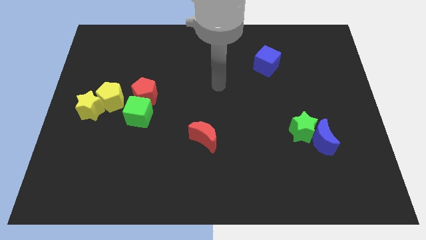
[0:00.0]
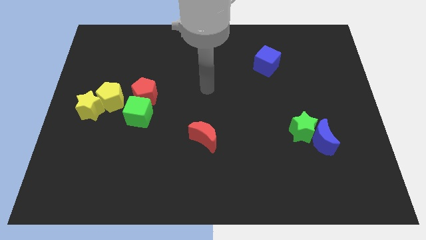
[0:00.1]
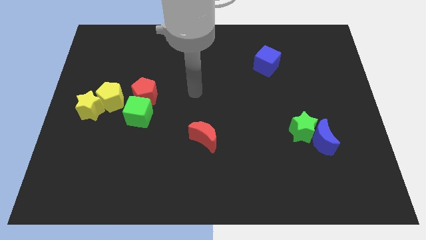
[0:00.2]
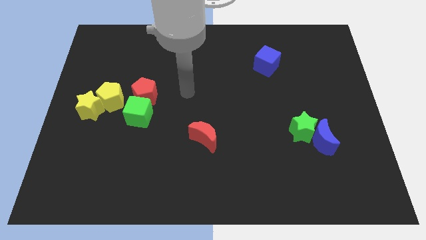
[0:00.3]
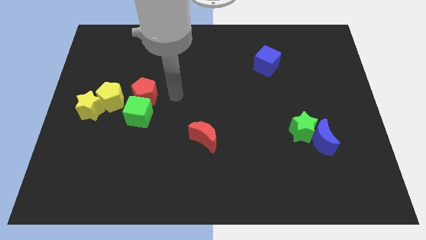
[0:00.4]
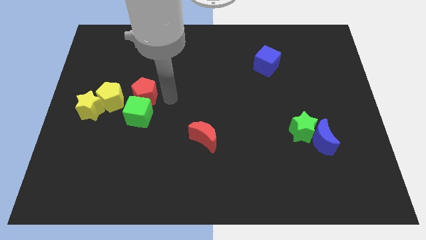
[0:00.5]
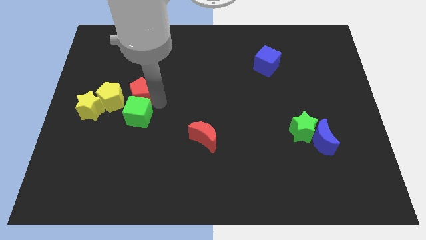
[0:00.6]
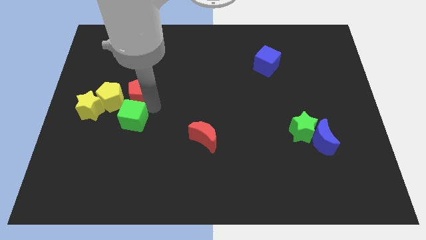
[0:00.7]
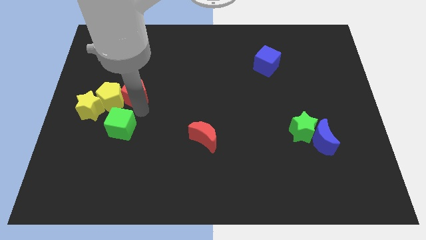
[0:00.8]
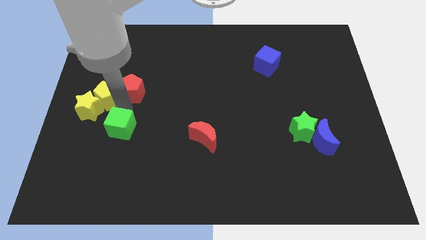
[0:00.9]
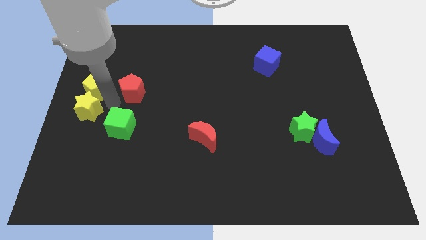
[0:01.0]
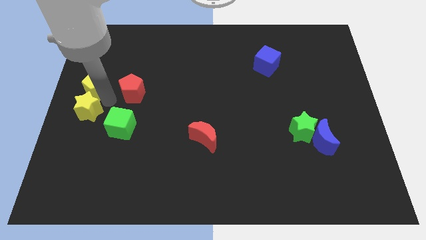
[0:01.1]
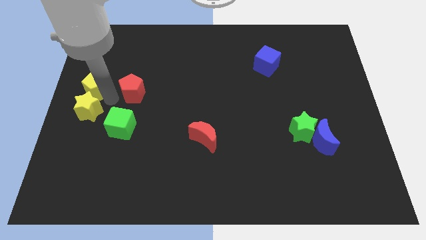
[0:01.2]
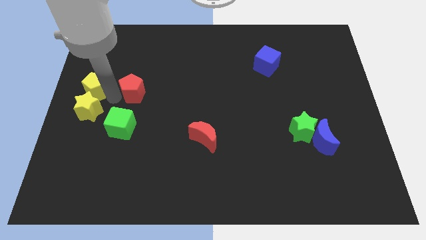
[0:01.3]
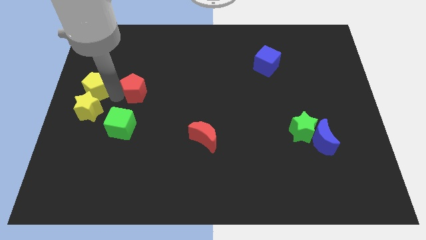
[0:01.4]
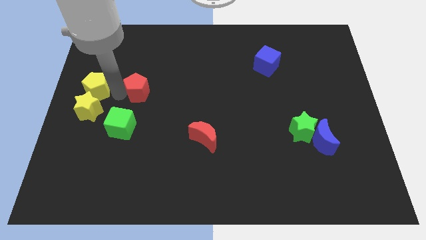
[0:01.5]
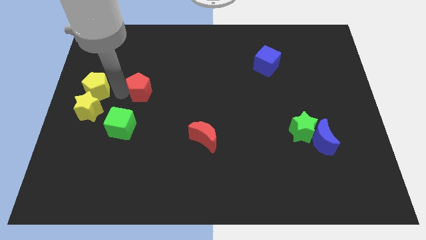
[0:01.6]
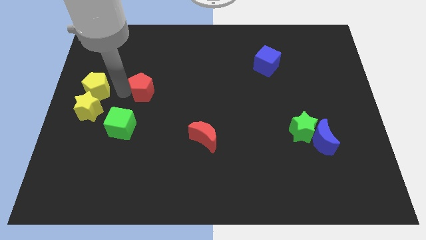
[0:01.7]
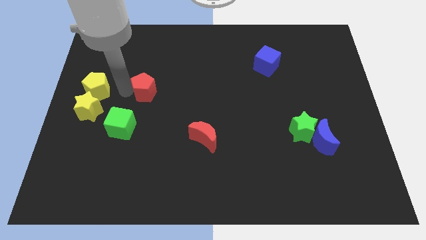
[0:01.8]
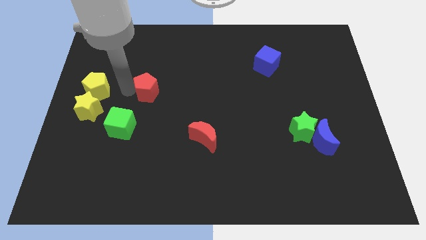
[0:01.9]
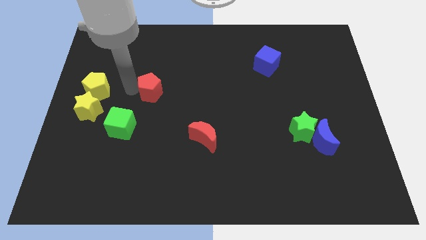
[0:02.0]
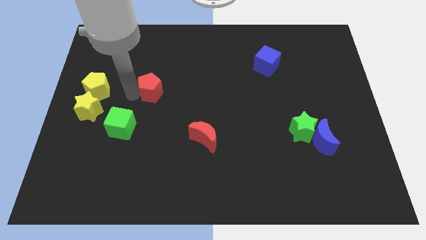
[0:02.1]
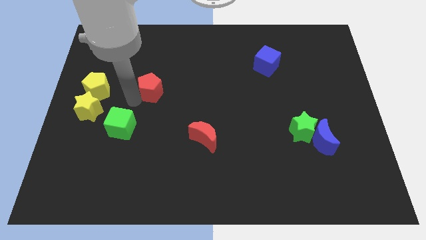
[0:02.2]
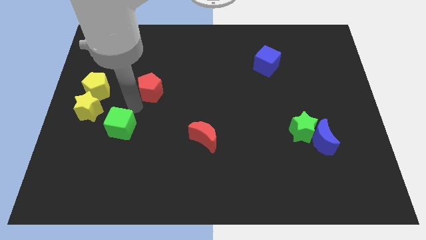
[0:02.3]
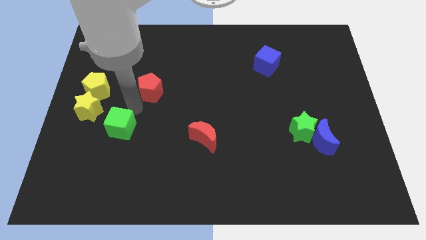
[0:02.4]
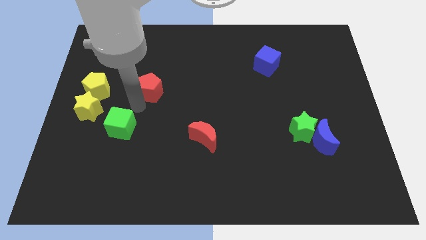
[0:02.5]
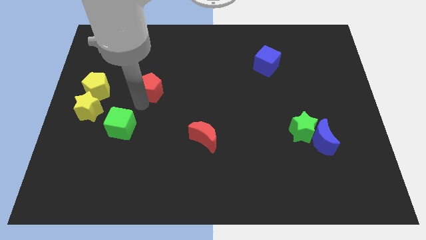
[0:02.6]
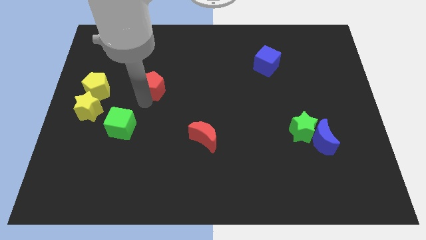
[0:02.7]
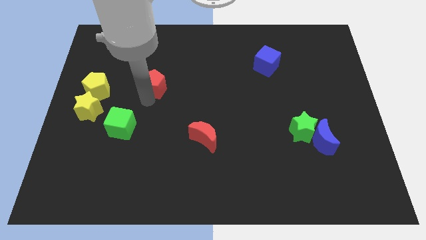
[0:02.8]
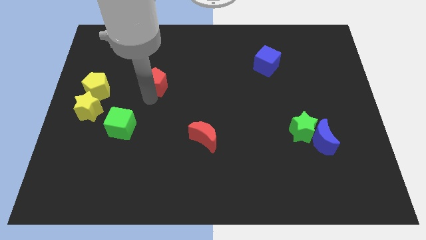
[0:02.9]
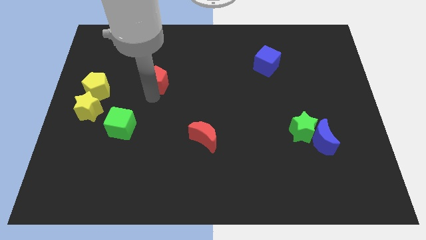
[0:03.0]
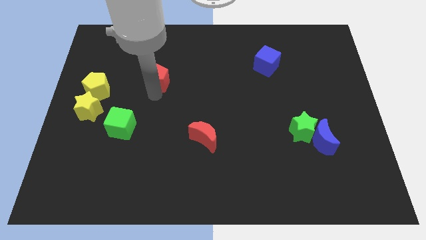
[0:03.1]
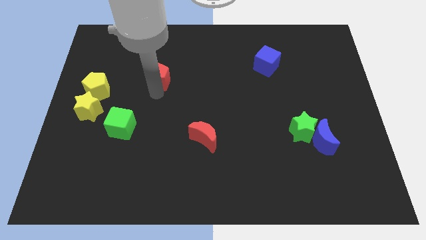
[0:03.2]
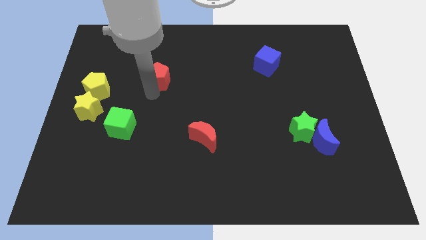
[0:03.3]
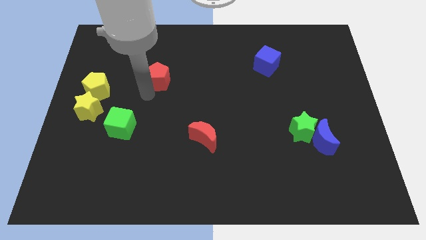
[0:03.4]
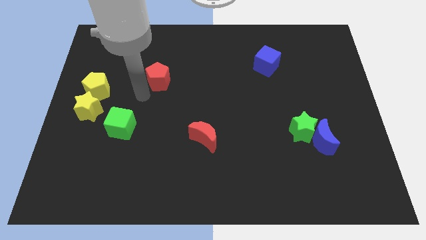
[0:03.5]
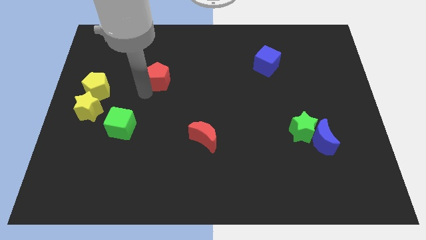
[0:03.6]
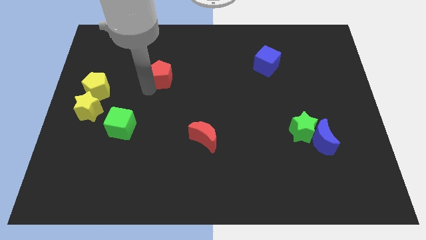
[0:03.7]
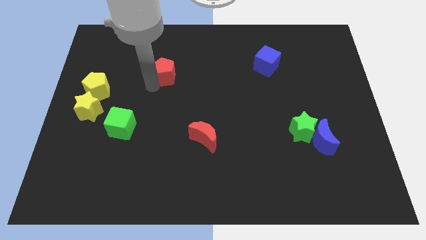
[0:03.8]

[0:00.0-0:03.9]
push the red pentagon up and right diagonally somewhat

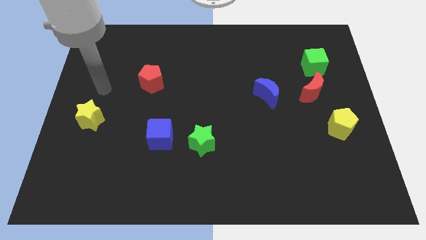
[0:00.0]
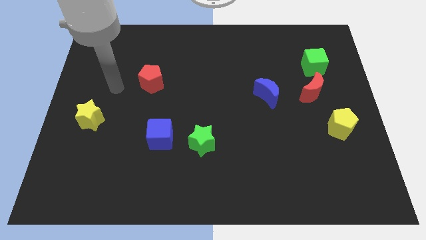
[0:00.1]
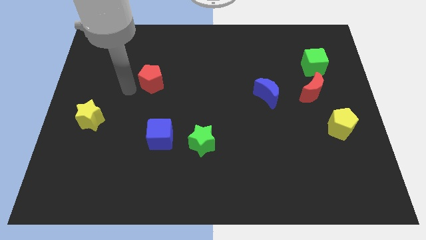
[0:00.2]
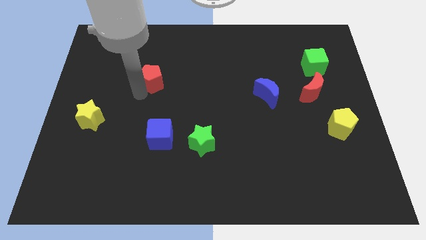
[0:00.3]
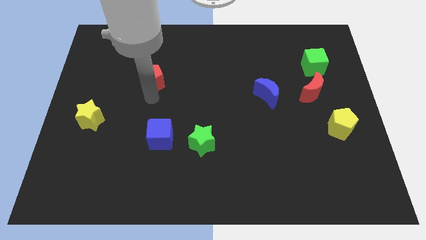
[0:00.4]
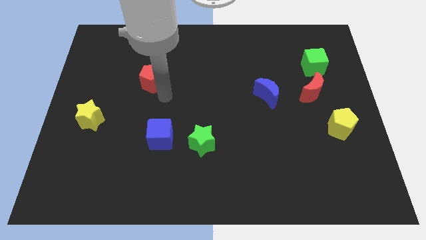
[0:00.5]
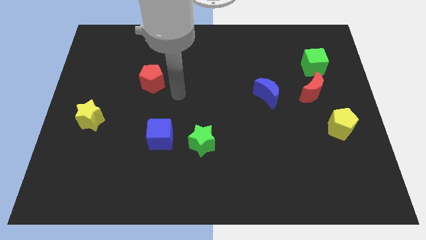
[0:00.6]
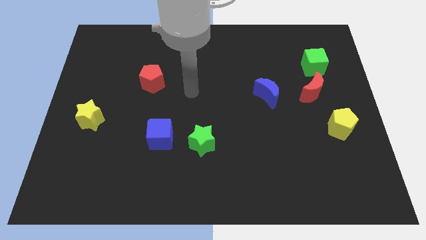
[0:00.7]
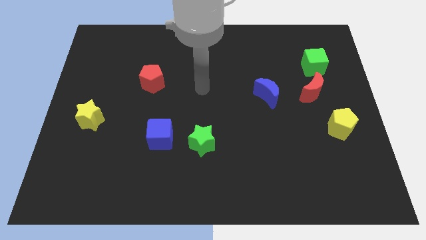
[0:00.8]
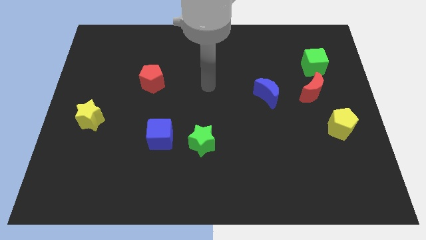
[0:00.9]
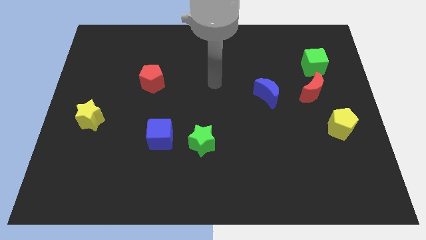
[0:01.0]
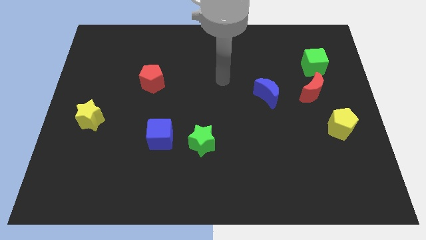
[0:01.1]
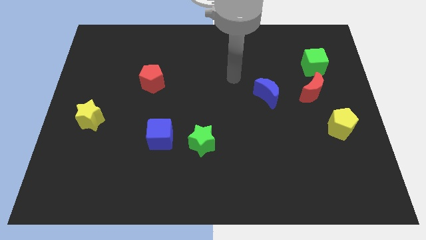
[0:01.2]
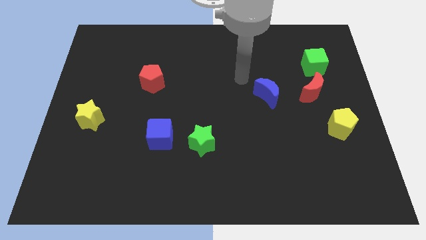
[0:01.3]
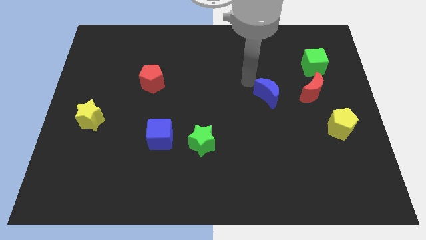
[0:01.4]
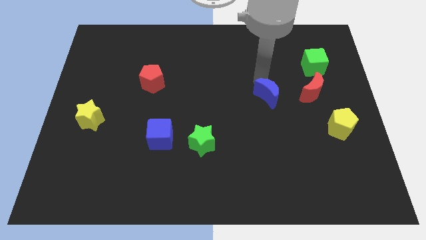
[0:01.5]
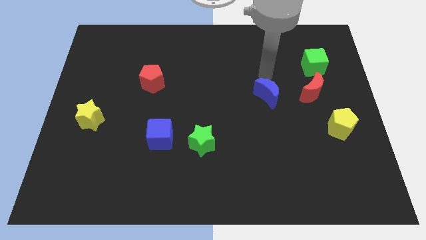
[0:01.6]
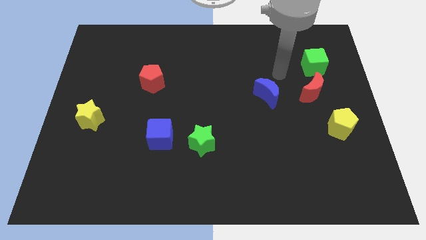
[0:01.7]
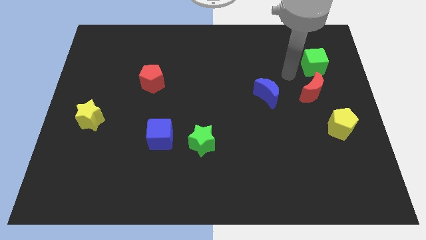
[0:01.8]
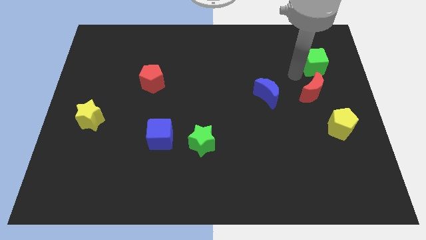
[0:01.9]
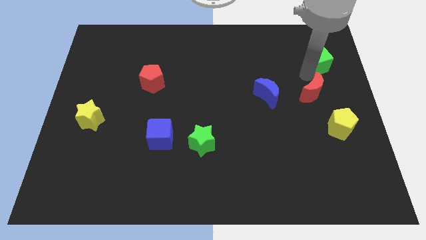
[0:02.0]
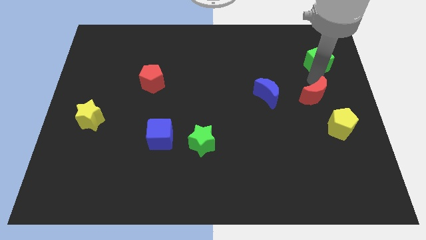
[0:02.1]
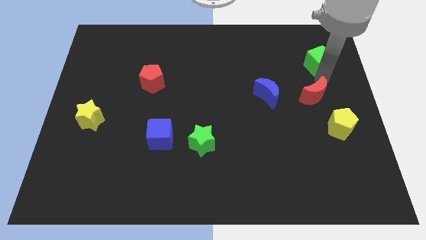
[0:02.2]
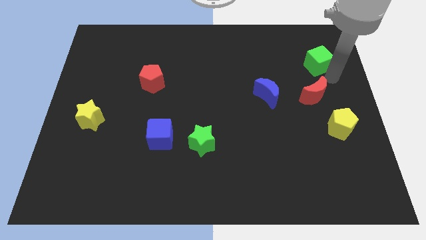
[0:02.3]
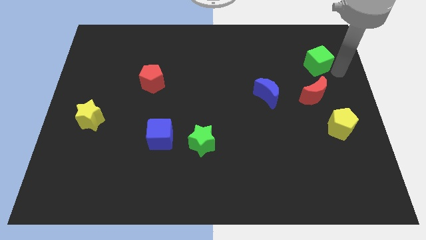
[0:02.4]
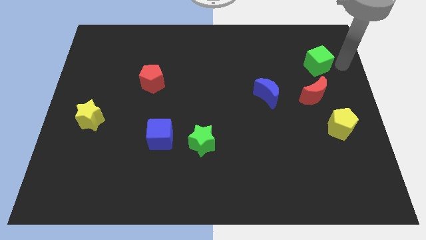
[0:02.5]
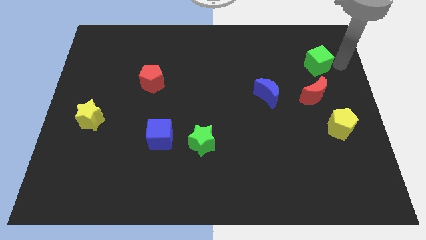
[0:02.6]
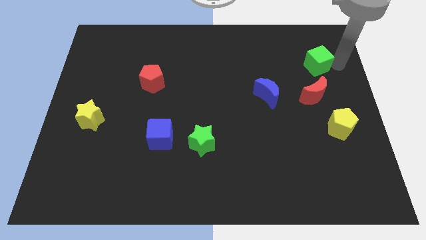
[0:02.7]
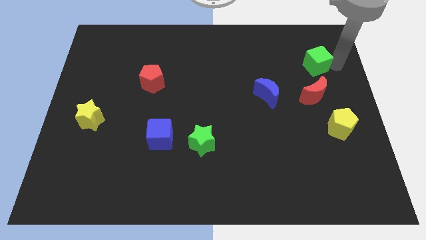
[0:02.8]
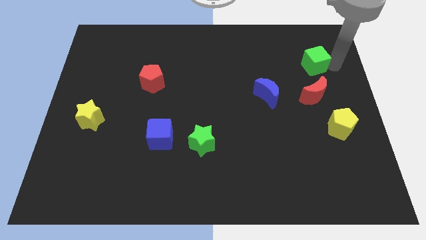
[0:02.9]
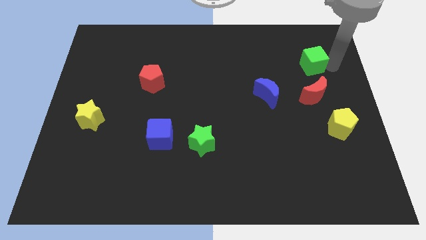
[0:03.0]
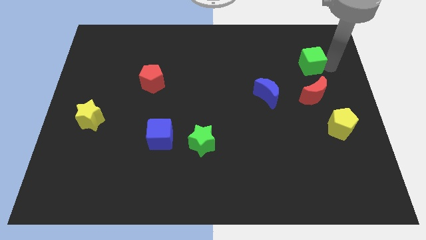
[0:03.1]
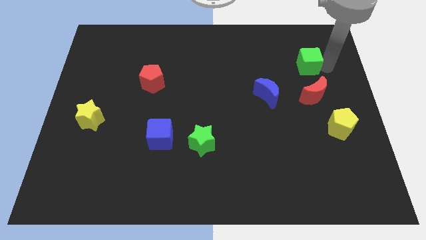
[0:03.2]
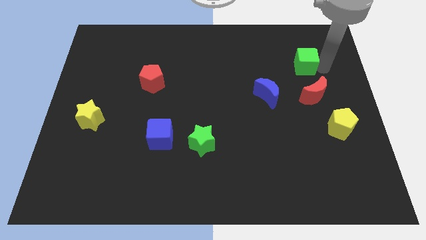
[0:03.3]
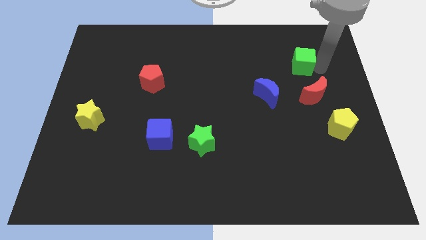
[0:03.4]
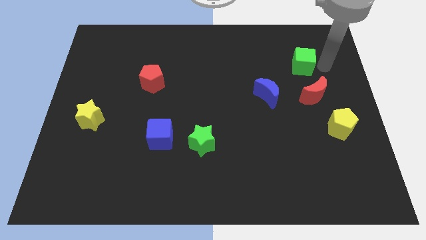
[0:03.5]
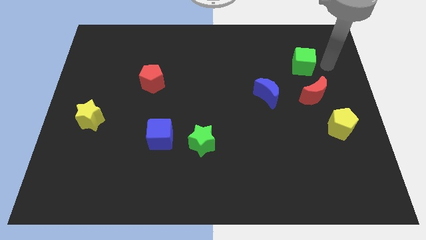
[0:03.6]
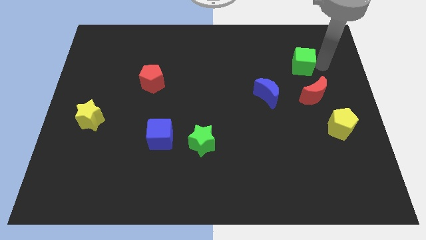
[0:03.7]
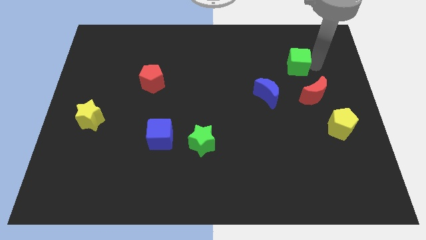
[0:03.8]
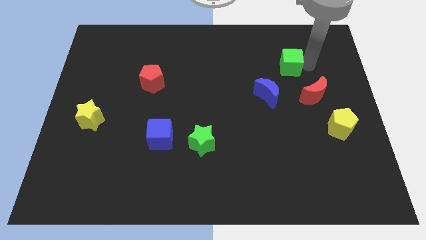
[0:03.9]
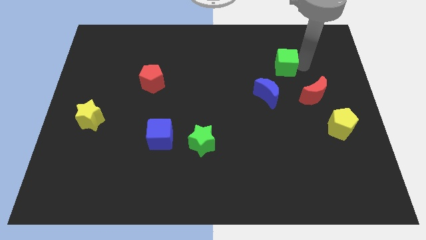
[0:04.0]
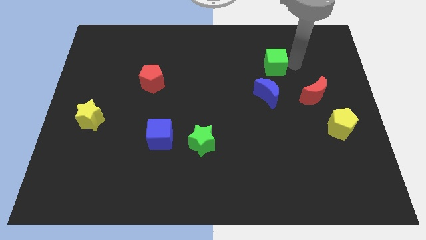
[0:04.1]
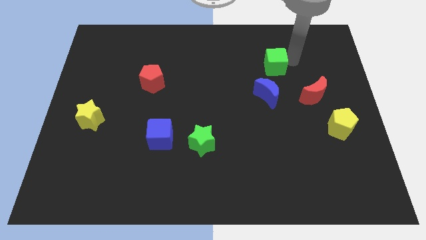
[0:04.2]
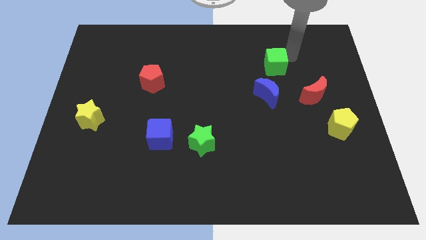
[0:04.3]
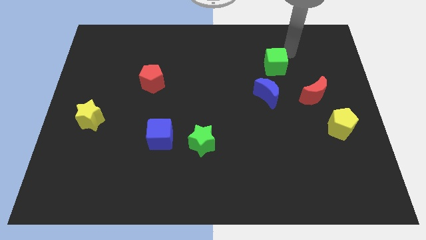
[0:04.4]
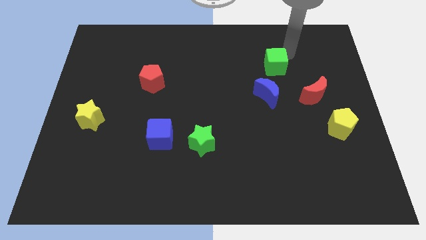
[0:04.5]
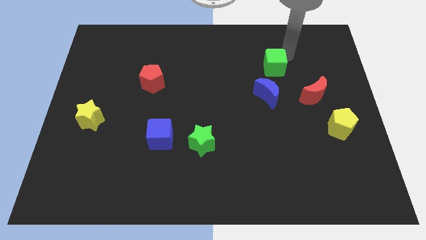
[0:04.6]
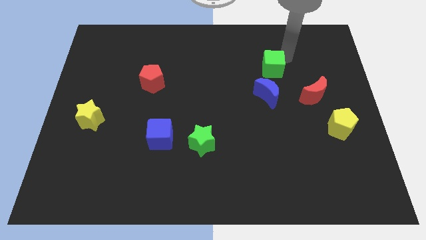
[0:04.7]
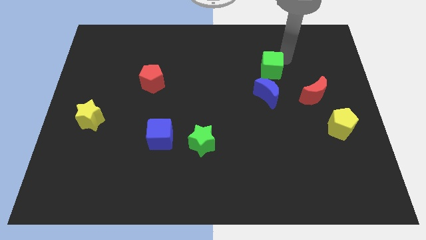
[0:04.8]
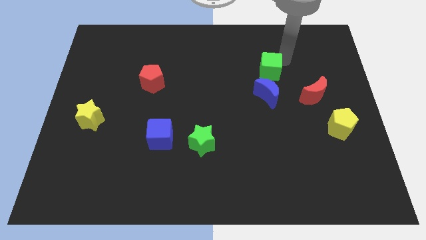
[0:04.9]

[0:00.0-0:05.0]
slightly move the green cube downwards and left diagonally
